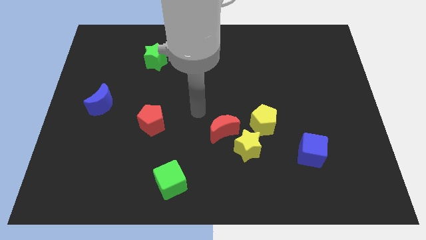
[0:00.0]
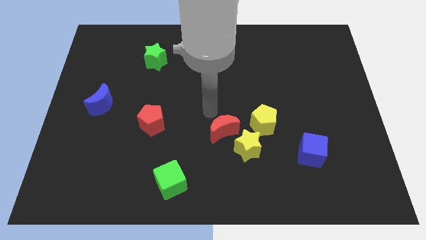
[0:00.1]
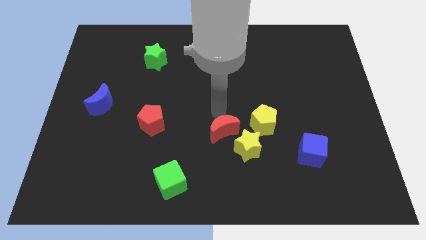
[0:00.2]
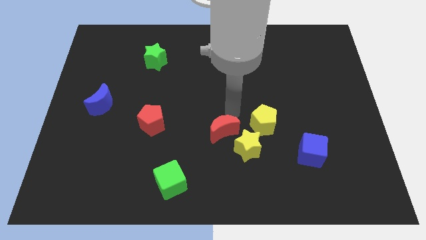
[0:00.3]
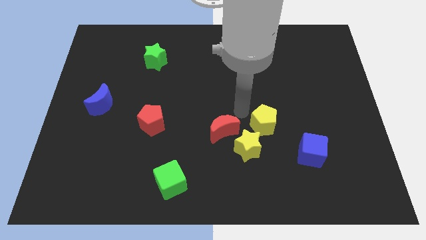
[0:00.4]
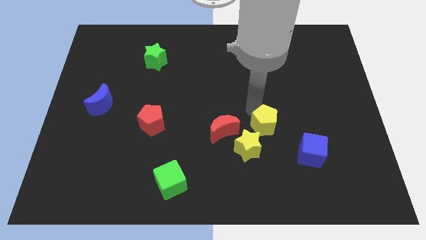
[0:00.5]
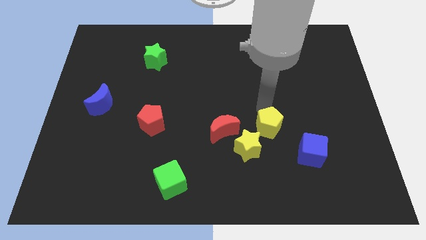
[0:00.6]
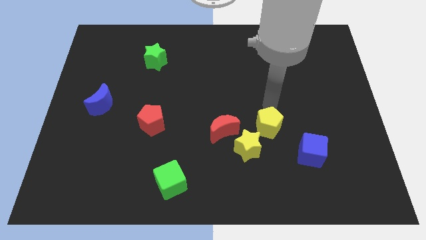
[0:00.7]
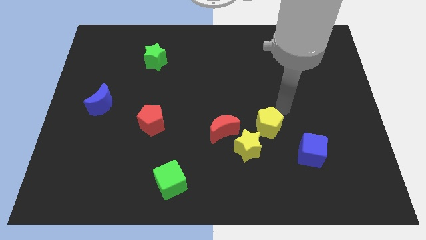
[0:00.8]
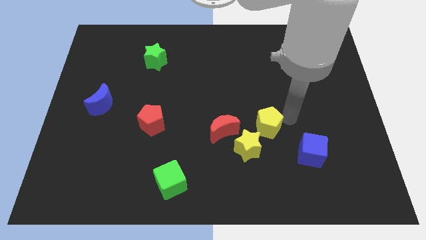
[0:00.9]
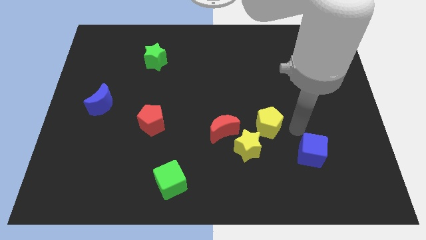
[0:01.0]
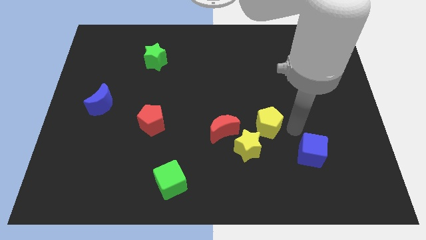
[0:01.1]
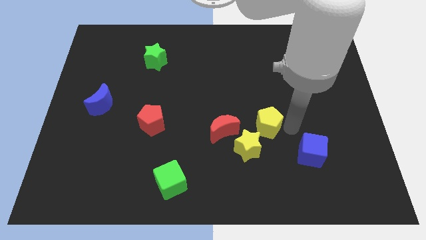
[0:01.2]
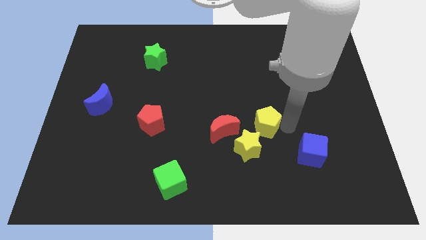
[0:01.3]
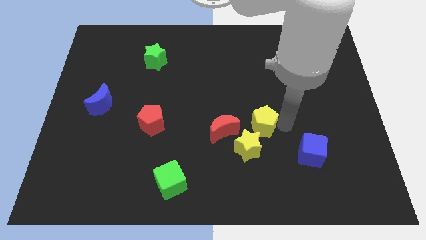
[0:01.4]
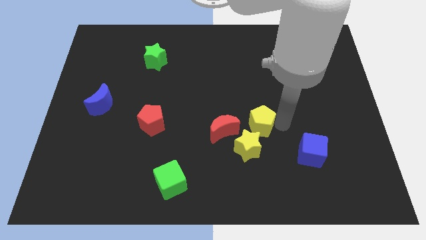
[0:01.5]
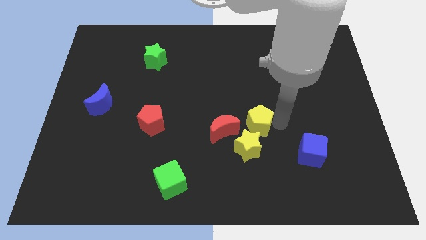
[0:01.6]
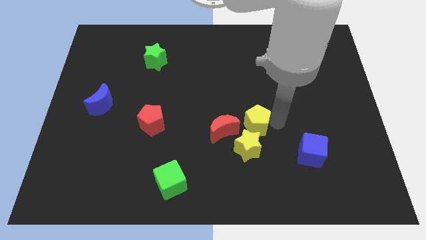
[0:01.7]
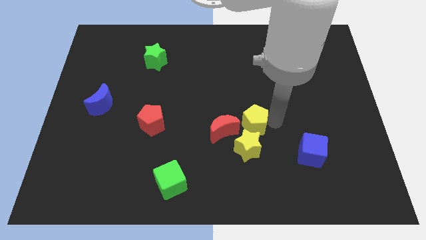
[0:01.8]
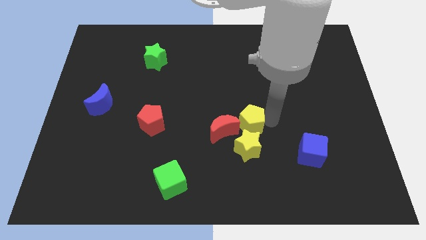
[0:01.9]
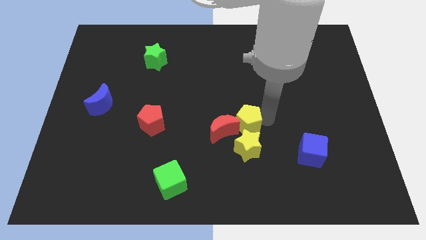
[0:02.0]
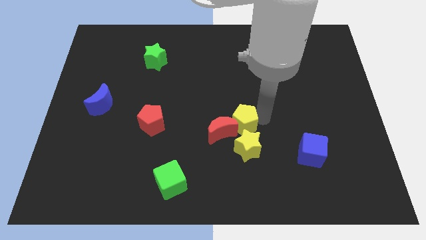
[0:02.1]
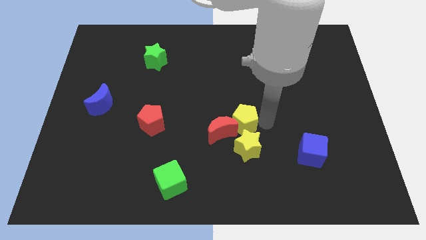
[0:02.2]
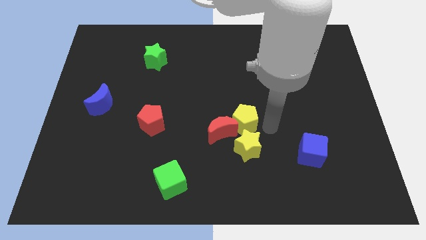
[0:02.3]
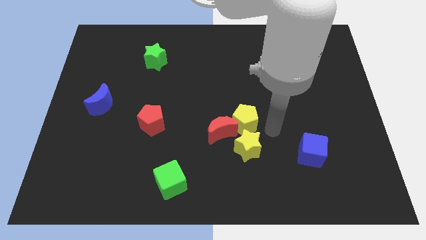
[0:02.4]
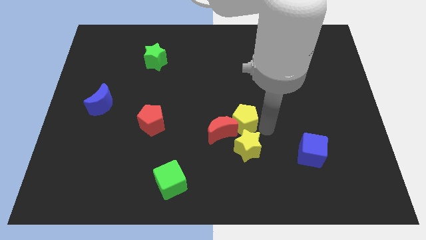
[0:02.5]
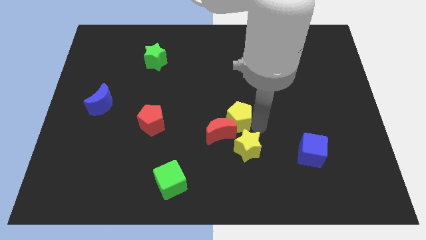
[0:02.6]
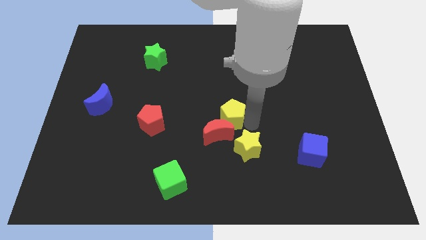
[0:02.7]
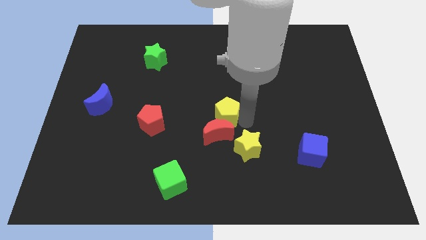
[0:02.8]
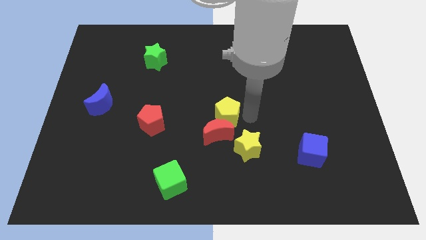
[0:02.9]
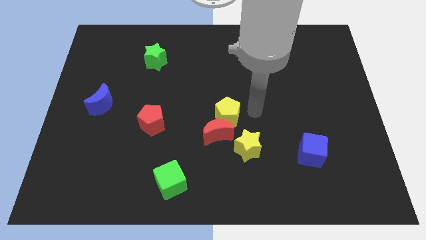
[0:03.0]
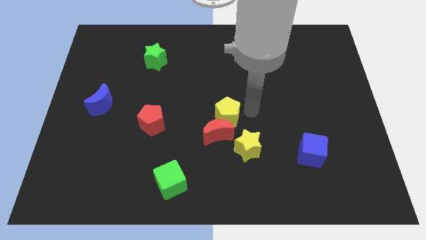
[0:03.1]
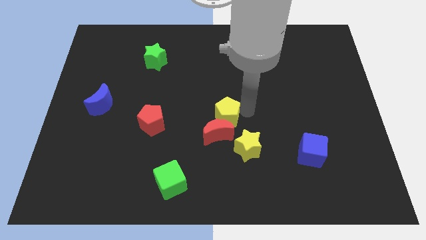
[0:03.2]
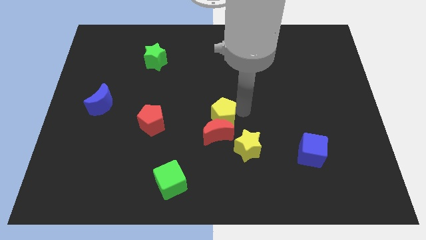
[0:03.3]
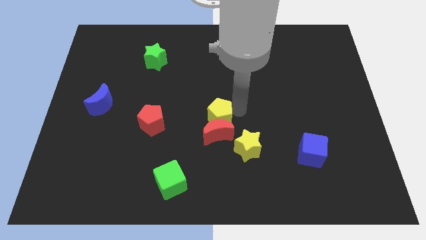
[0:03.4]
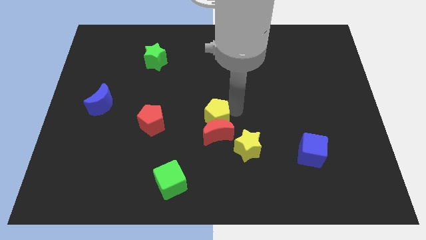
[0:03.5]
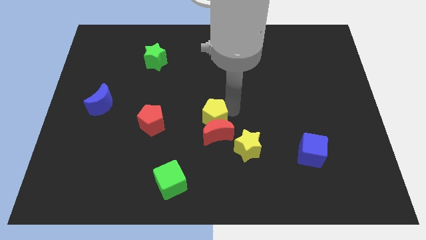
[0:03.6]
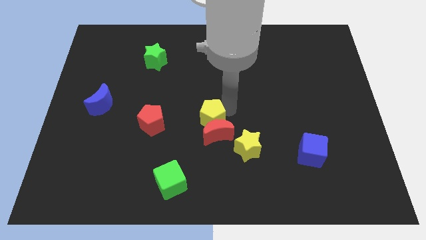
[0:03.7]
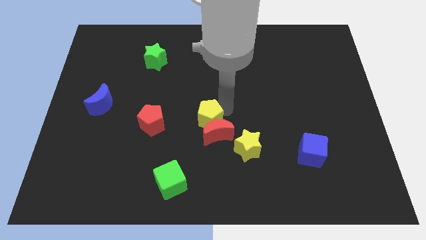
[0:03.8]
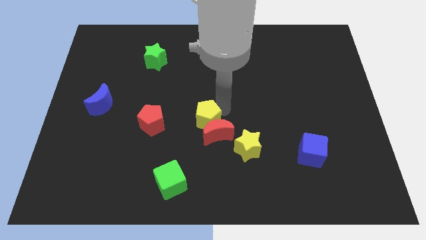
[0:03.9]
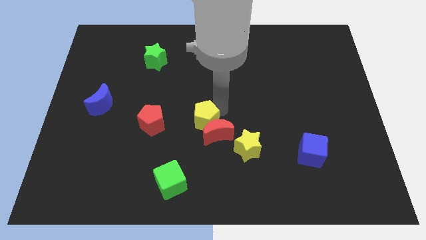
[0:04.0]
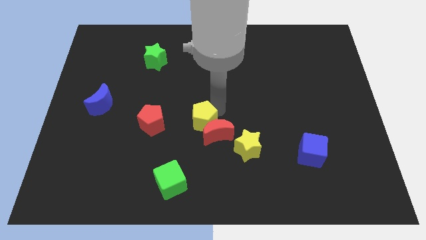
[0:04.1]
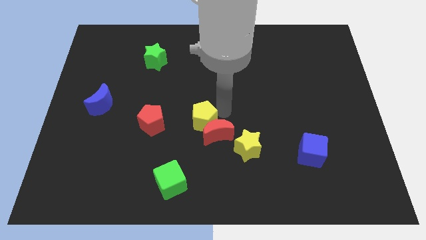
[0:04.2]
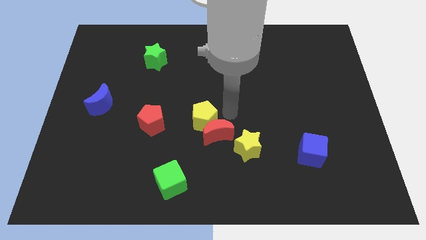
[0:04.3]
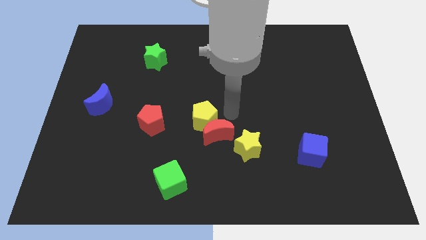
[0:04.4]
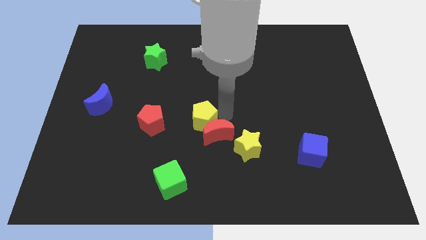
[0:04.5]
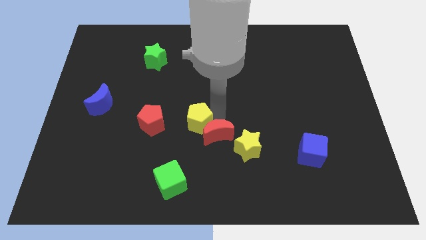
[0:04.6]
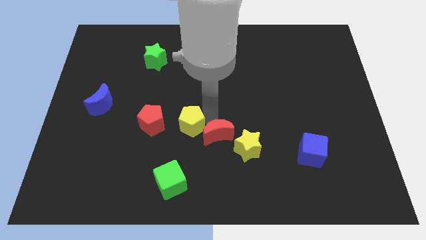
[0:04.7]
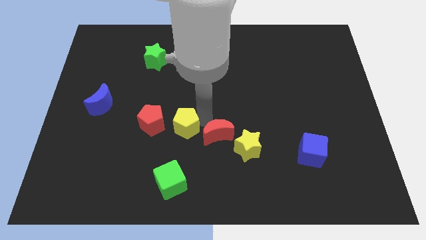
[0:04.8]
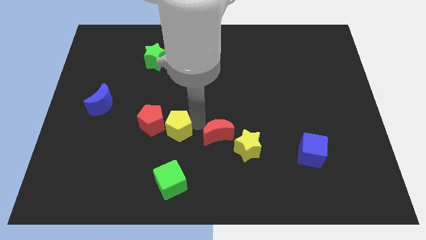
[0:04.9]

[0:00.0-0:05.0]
move the yellow pentagon next to the red pentagon

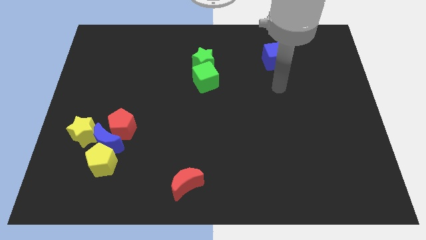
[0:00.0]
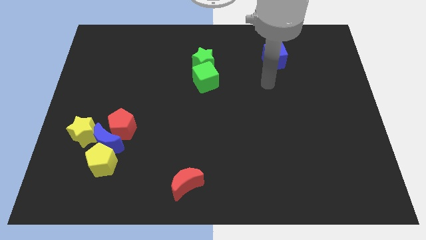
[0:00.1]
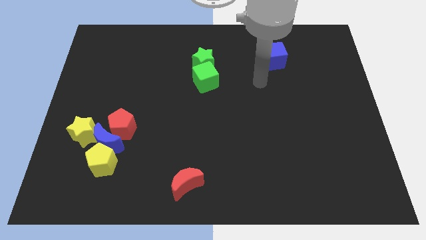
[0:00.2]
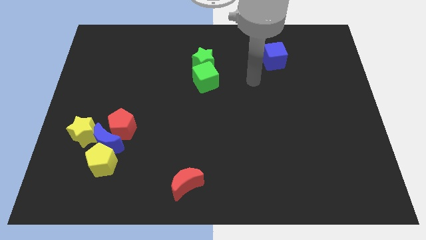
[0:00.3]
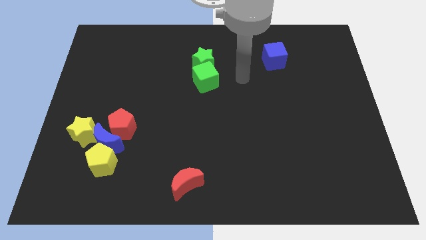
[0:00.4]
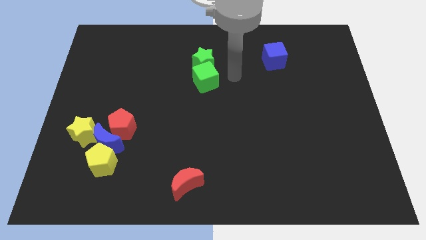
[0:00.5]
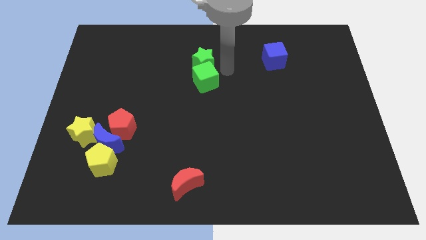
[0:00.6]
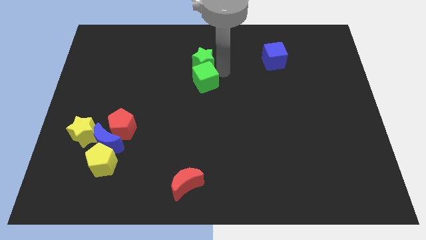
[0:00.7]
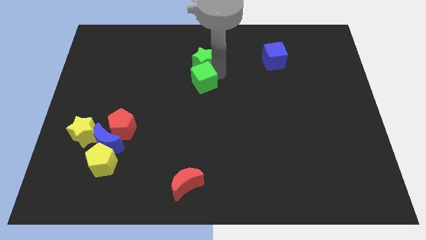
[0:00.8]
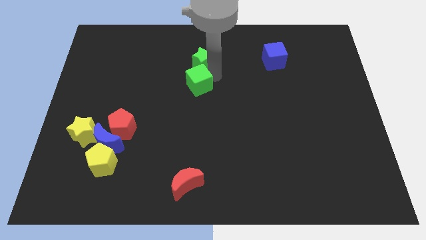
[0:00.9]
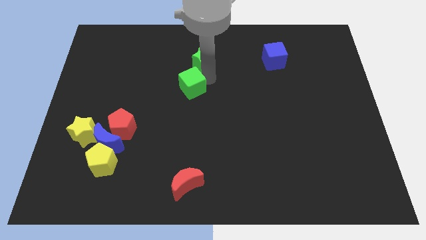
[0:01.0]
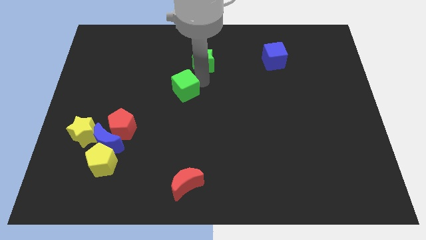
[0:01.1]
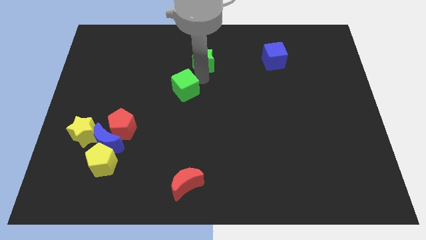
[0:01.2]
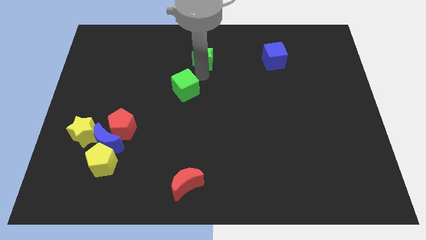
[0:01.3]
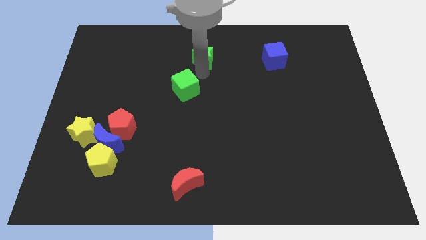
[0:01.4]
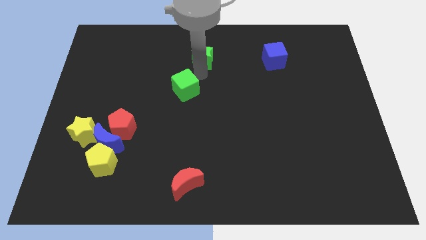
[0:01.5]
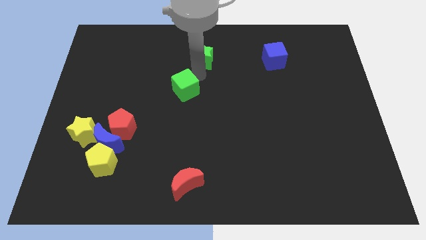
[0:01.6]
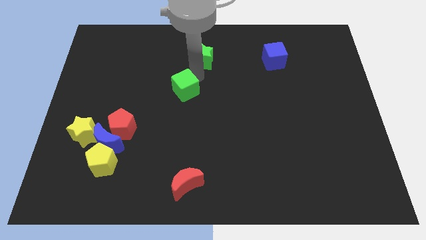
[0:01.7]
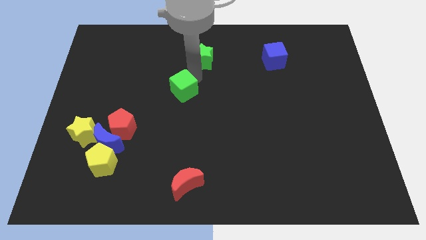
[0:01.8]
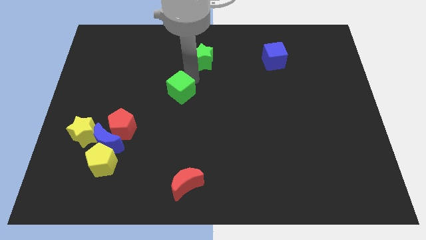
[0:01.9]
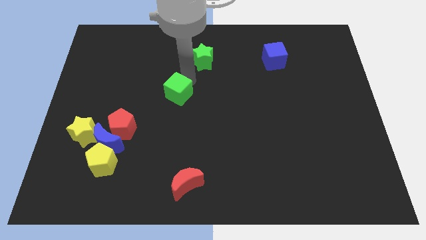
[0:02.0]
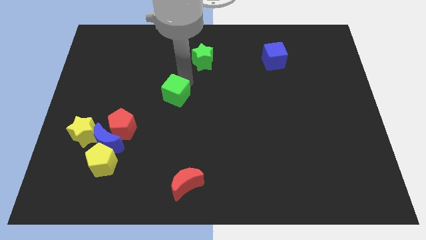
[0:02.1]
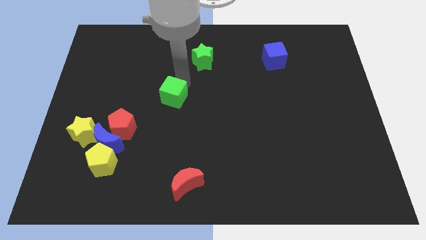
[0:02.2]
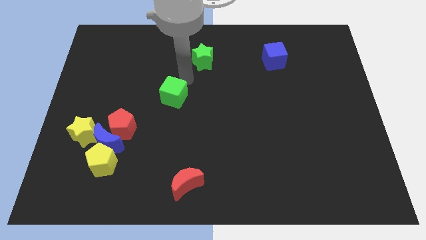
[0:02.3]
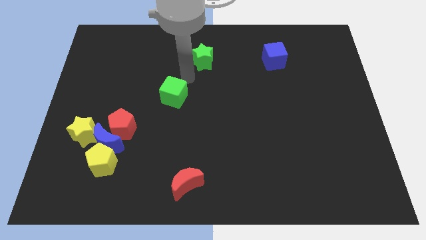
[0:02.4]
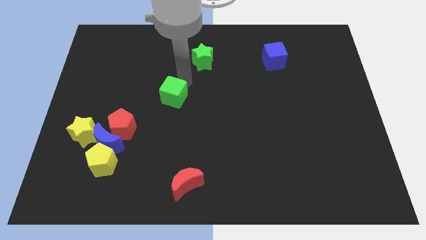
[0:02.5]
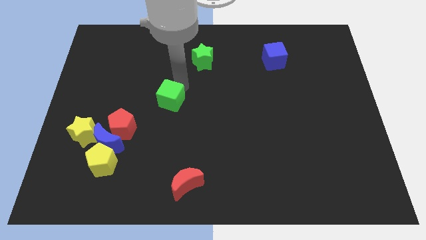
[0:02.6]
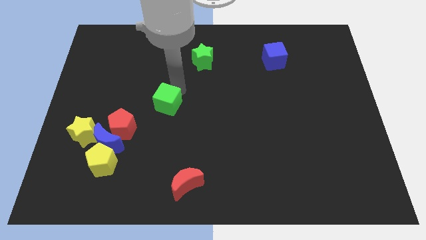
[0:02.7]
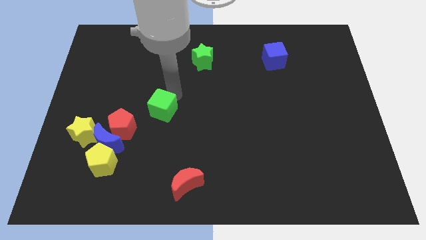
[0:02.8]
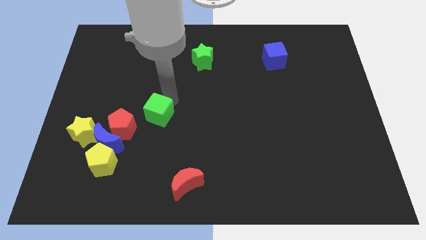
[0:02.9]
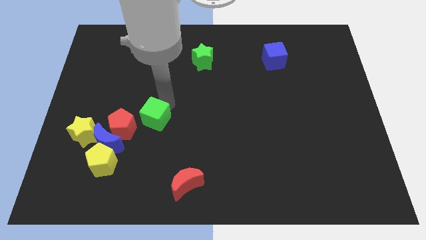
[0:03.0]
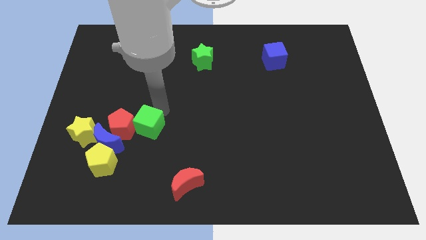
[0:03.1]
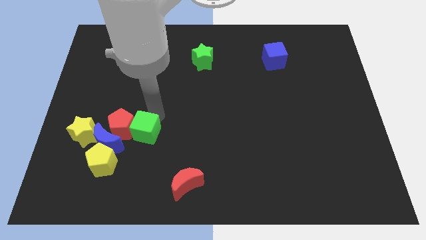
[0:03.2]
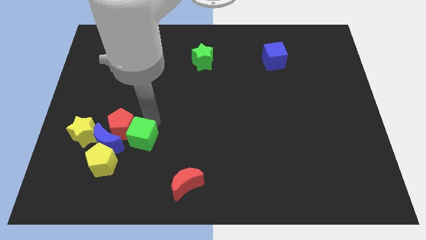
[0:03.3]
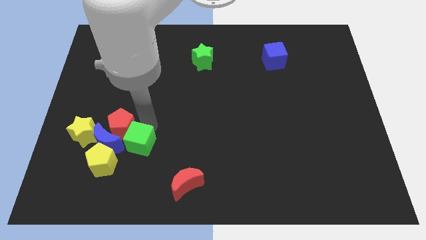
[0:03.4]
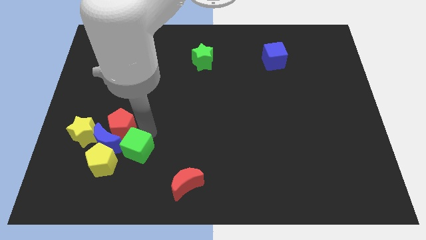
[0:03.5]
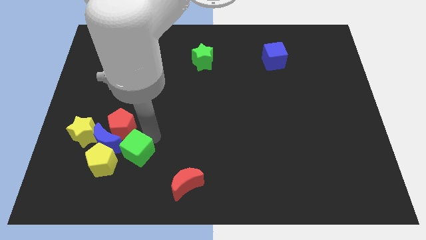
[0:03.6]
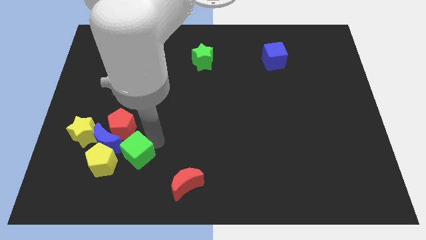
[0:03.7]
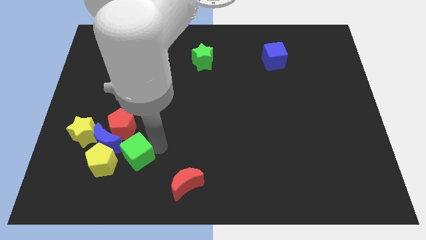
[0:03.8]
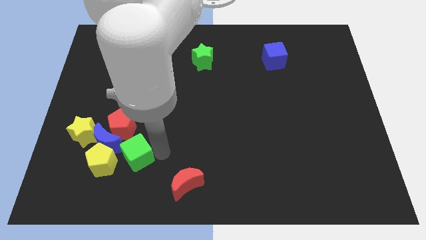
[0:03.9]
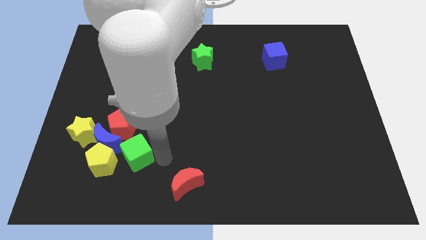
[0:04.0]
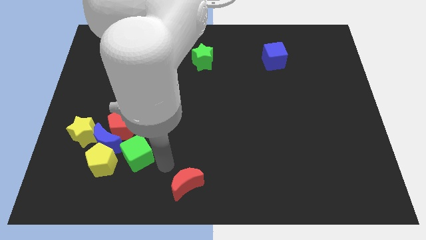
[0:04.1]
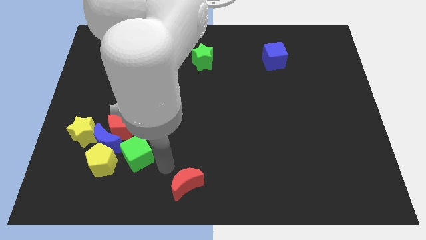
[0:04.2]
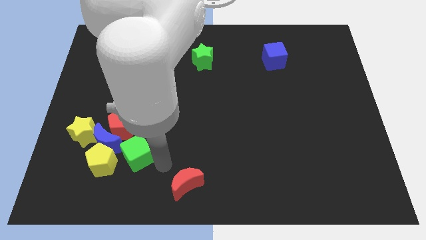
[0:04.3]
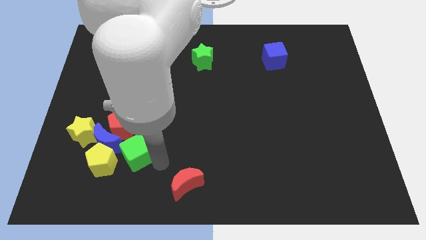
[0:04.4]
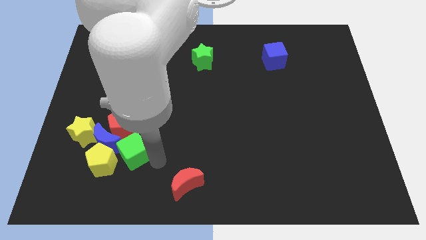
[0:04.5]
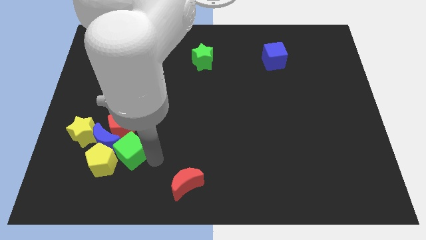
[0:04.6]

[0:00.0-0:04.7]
move the green cube next to the blue moon
